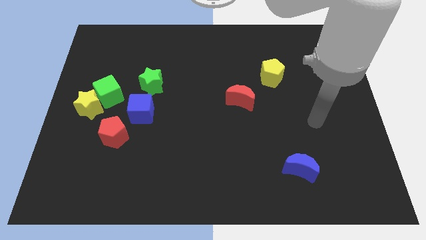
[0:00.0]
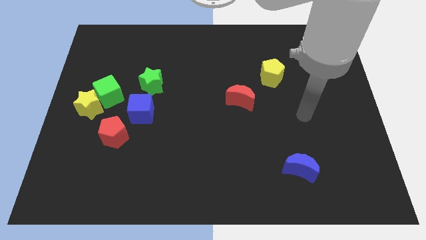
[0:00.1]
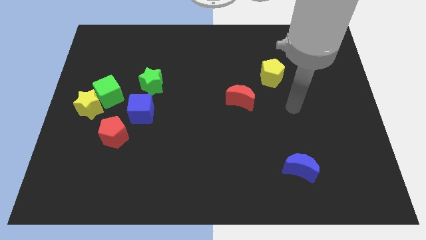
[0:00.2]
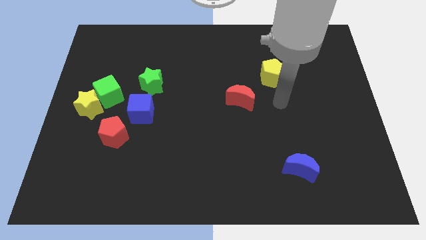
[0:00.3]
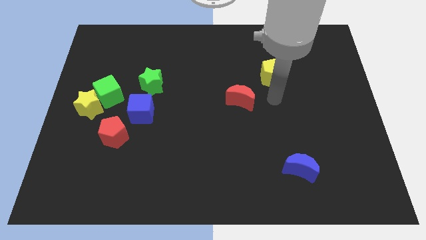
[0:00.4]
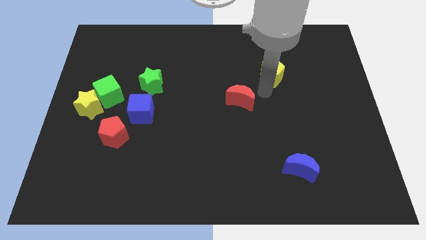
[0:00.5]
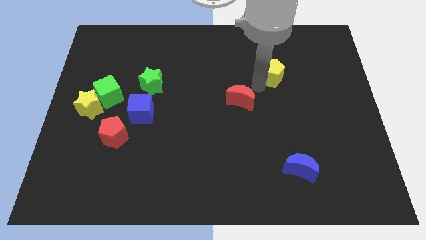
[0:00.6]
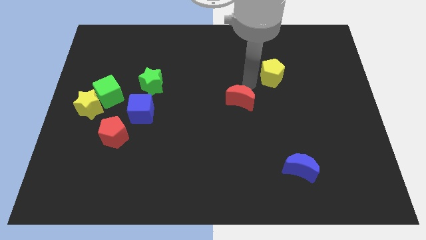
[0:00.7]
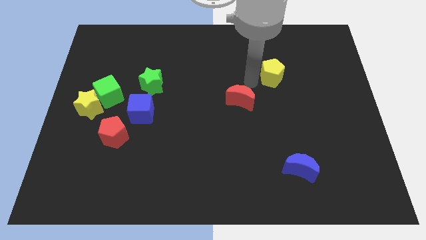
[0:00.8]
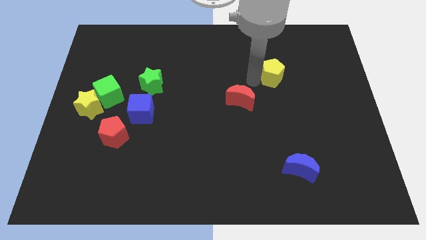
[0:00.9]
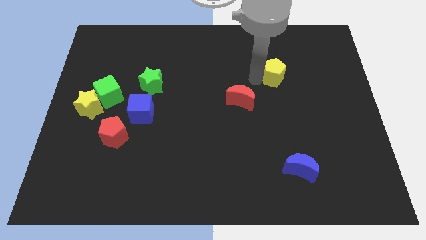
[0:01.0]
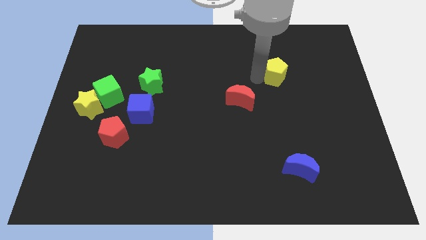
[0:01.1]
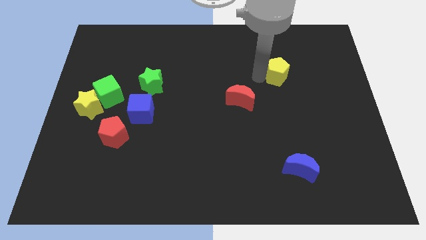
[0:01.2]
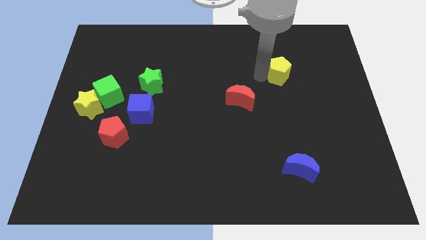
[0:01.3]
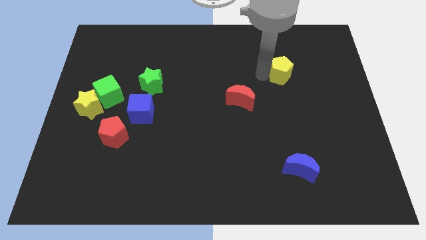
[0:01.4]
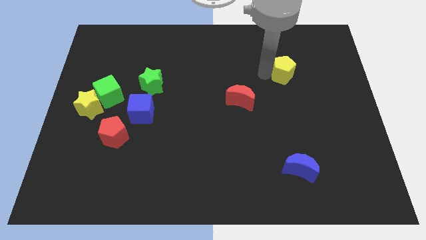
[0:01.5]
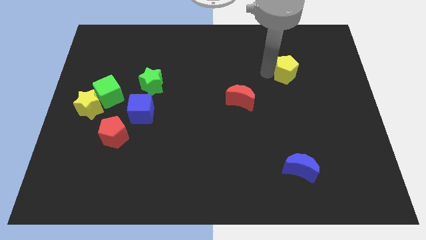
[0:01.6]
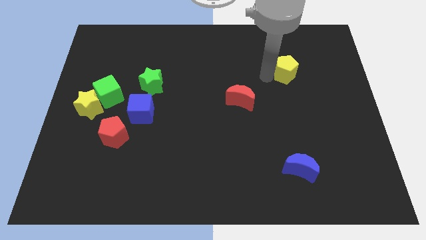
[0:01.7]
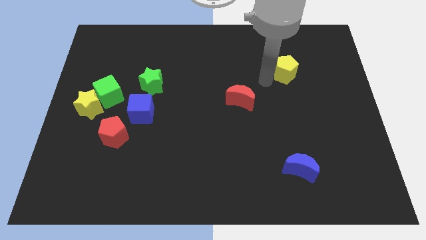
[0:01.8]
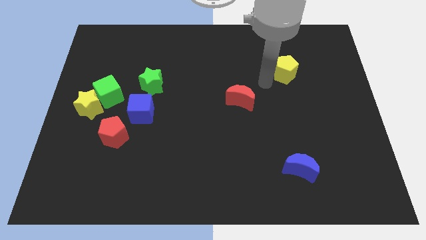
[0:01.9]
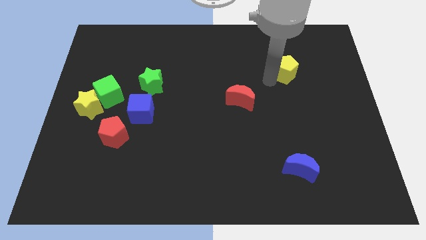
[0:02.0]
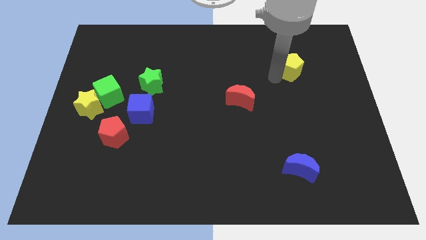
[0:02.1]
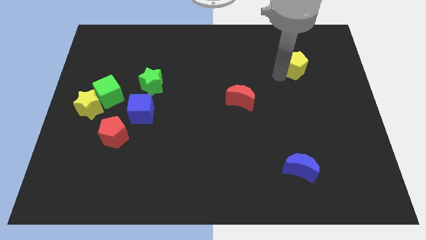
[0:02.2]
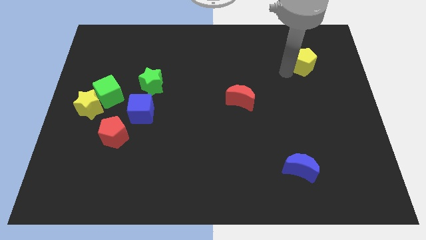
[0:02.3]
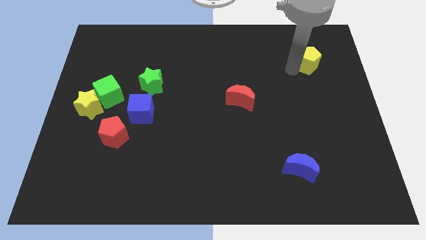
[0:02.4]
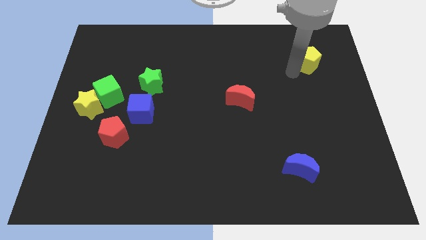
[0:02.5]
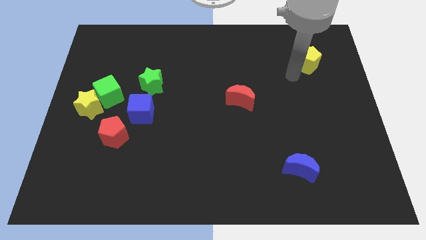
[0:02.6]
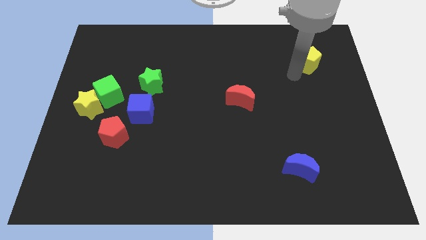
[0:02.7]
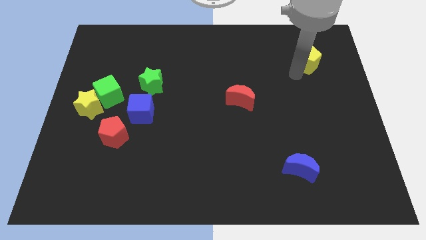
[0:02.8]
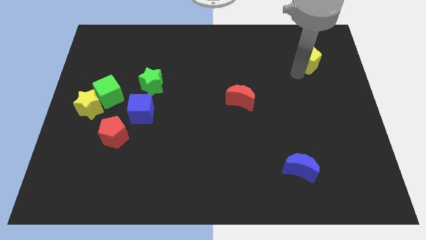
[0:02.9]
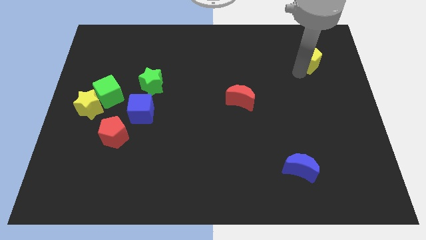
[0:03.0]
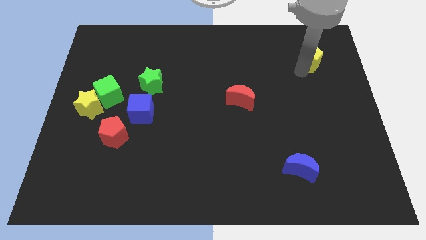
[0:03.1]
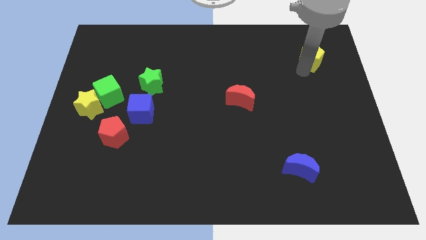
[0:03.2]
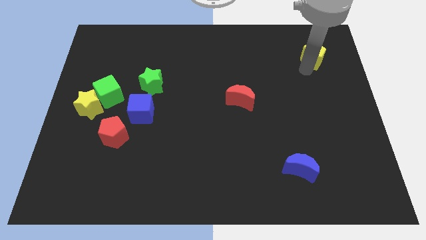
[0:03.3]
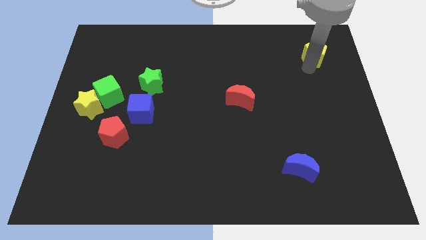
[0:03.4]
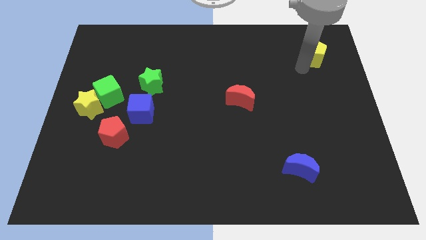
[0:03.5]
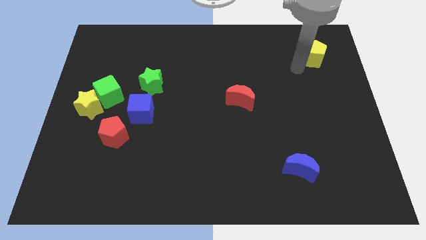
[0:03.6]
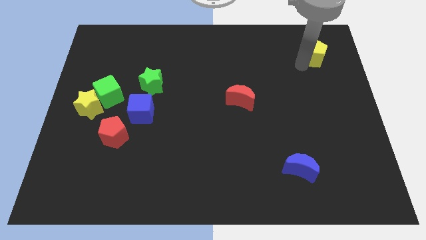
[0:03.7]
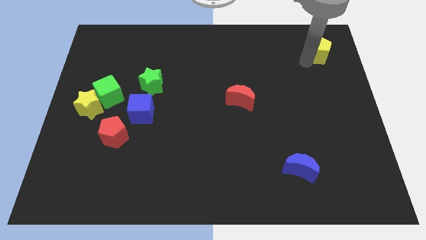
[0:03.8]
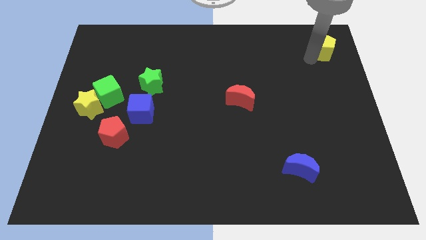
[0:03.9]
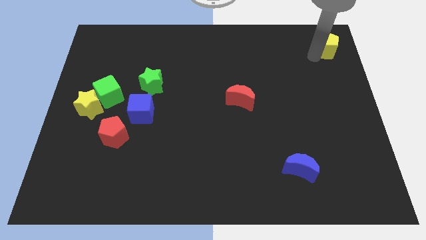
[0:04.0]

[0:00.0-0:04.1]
slide the yellow pentagon to the upper right corner

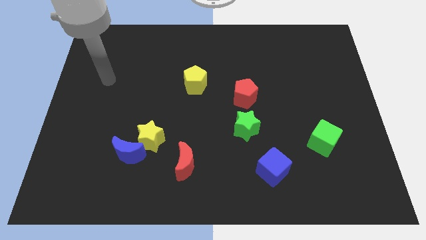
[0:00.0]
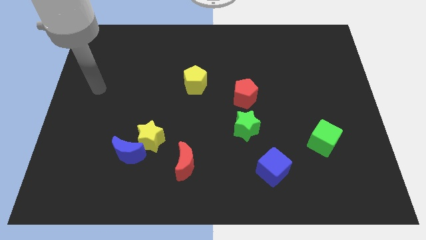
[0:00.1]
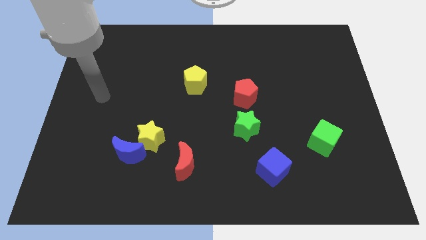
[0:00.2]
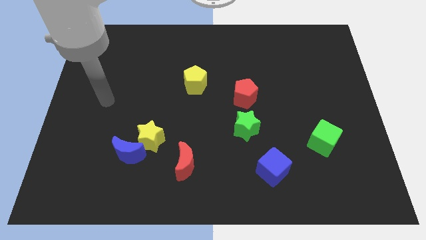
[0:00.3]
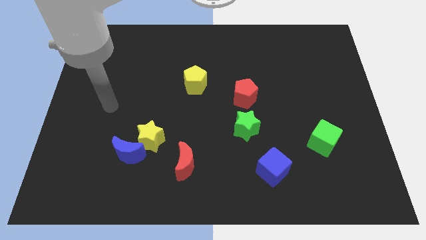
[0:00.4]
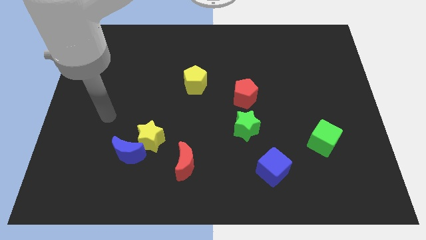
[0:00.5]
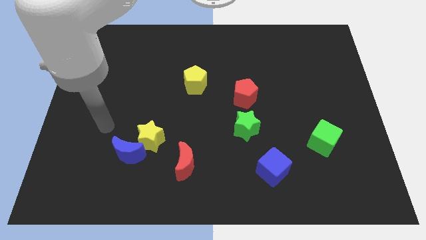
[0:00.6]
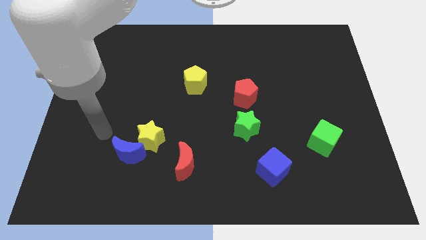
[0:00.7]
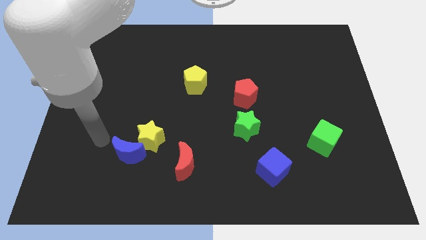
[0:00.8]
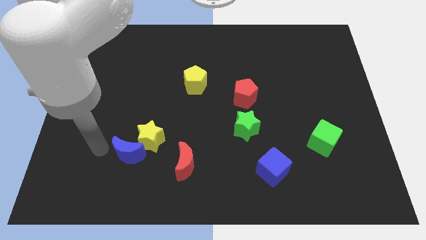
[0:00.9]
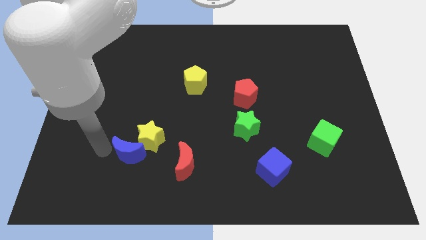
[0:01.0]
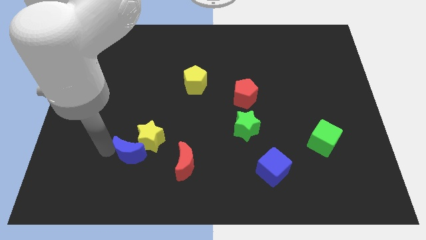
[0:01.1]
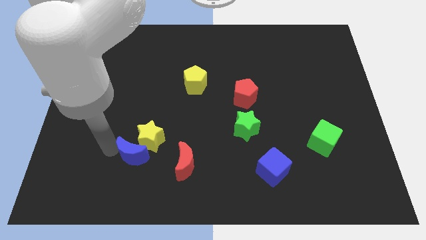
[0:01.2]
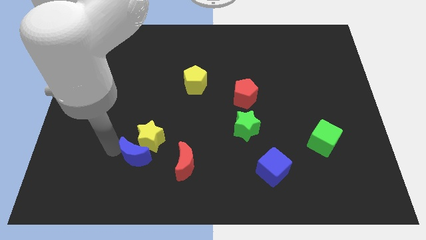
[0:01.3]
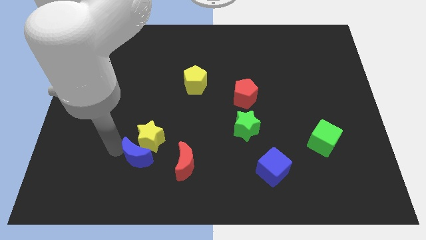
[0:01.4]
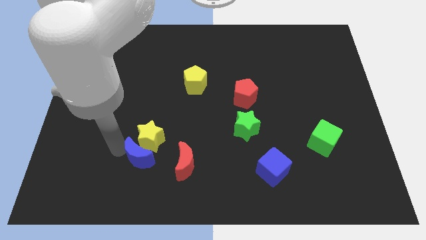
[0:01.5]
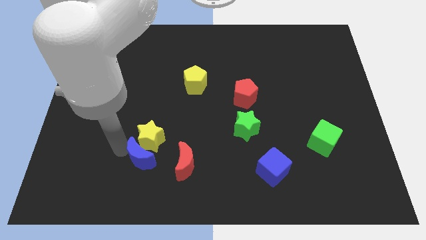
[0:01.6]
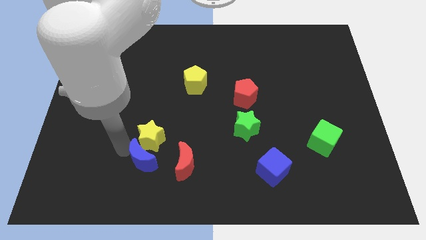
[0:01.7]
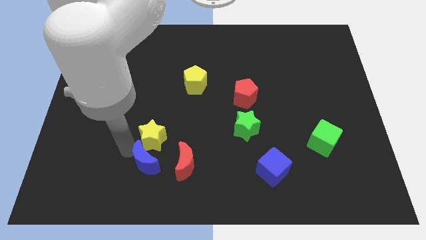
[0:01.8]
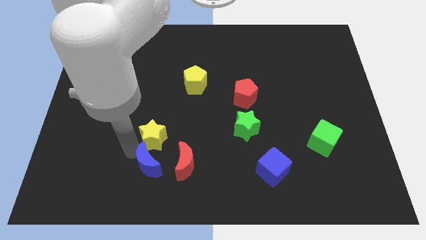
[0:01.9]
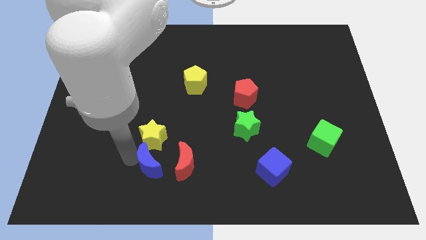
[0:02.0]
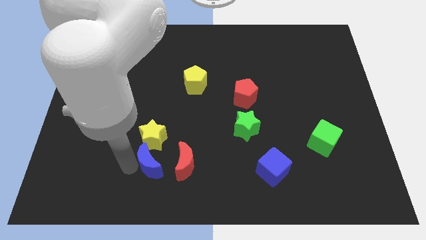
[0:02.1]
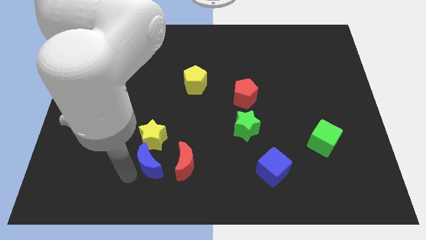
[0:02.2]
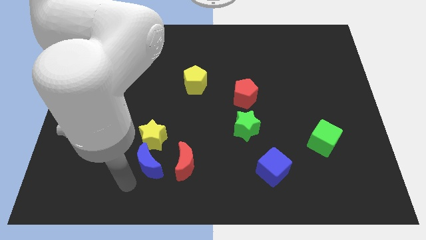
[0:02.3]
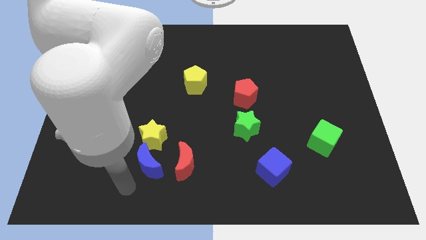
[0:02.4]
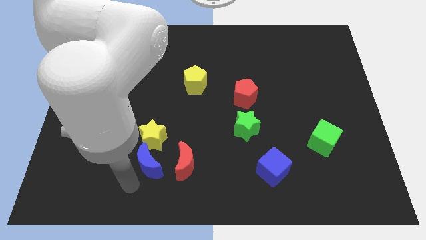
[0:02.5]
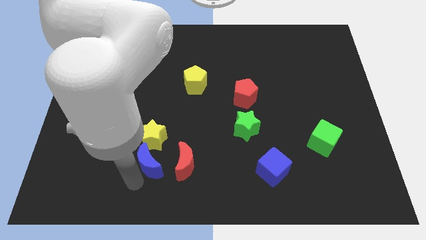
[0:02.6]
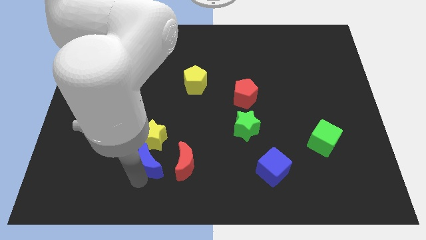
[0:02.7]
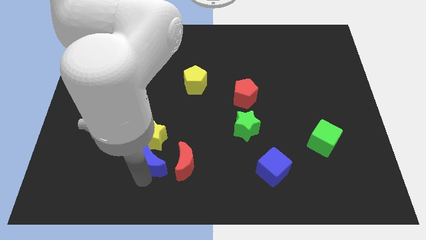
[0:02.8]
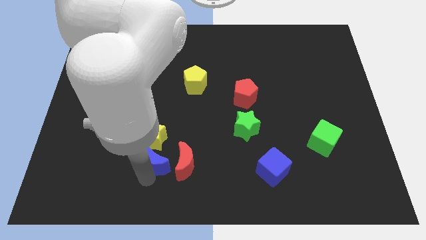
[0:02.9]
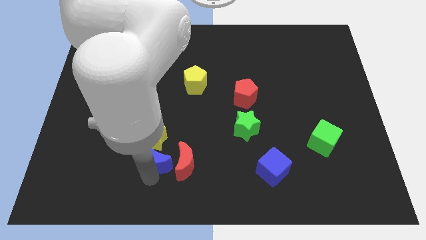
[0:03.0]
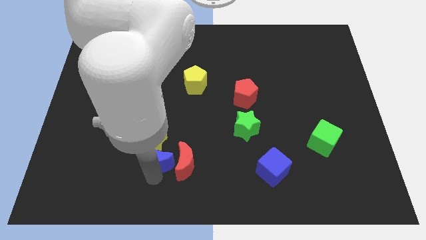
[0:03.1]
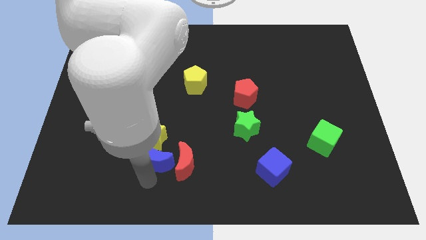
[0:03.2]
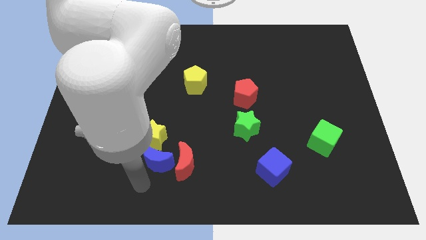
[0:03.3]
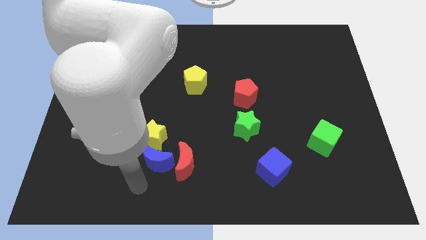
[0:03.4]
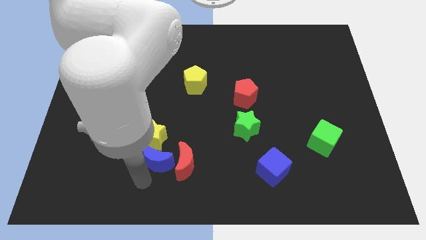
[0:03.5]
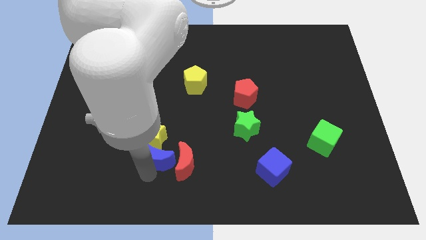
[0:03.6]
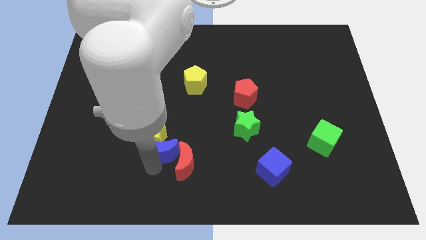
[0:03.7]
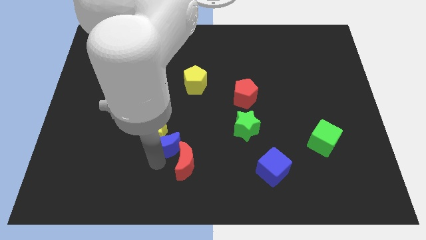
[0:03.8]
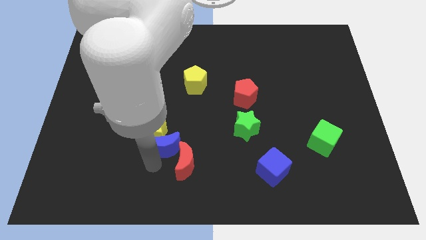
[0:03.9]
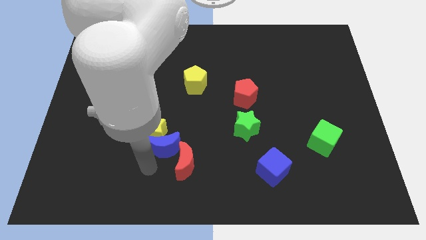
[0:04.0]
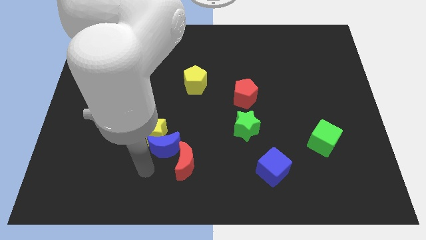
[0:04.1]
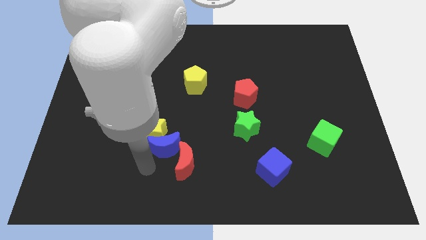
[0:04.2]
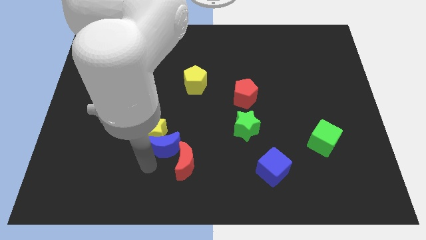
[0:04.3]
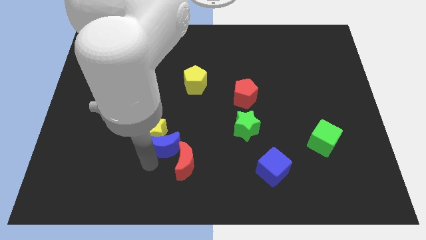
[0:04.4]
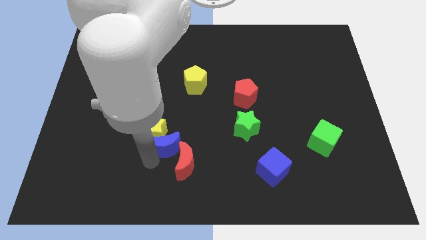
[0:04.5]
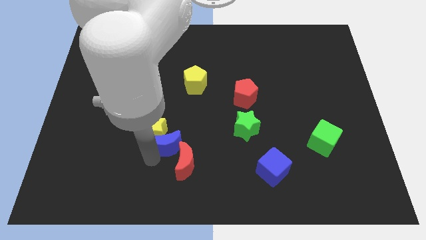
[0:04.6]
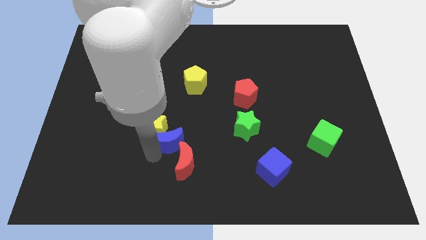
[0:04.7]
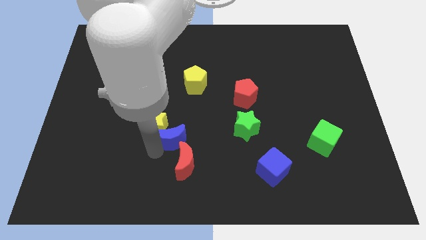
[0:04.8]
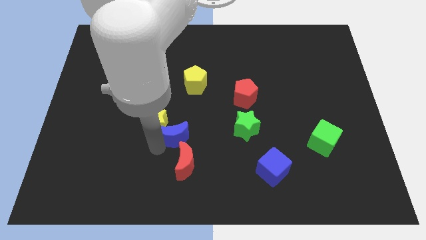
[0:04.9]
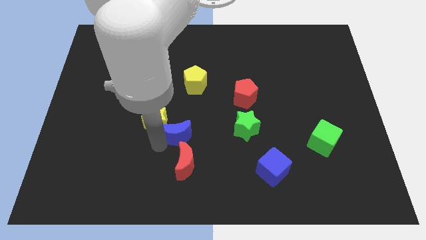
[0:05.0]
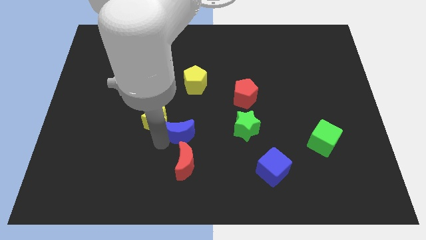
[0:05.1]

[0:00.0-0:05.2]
push the blue moon to the middle of the board
